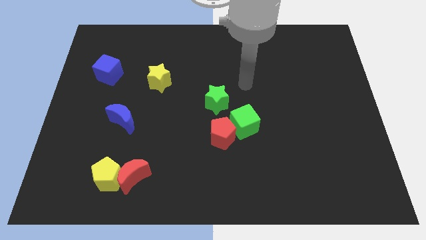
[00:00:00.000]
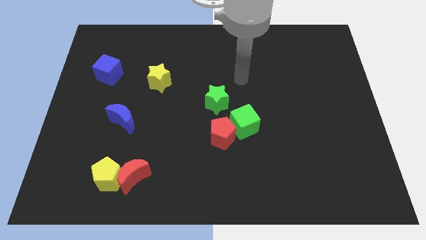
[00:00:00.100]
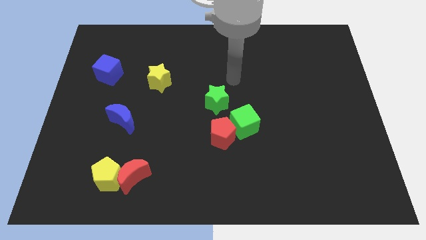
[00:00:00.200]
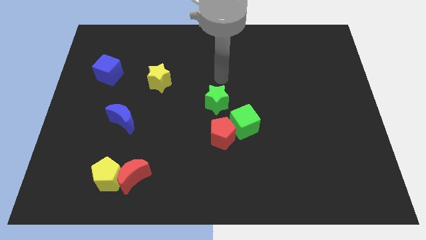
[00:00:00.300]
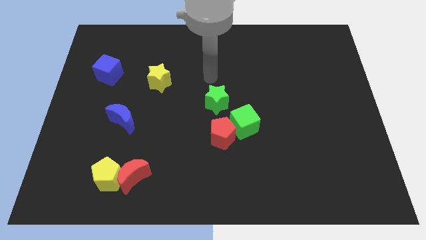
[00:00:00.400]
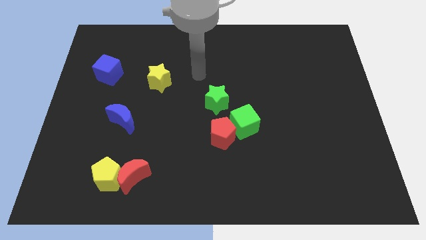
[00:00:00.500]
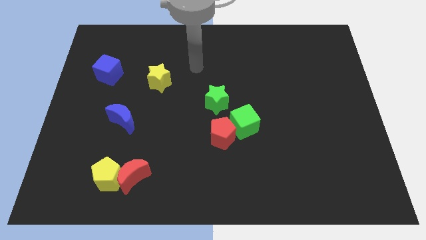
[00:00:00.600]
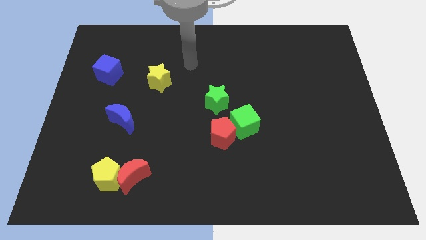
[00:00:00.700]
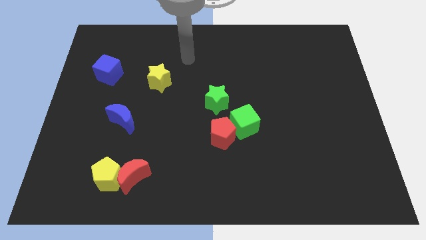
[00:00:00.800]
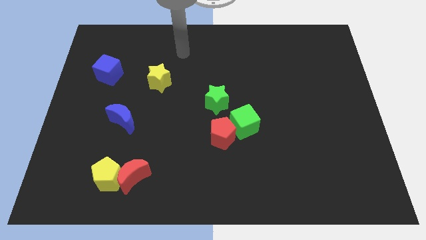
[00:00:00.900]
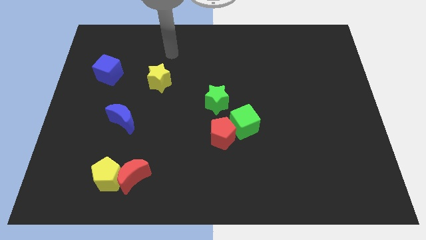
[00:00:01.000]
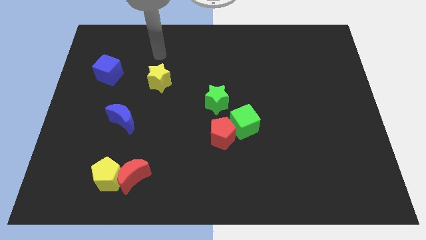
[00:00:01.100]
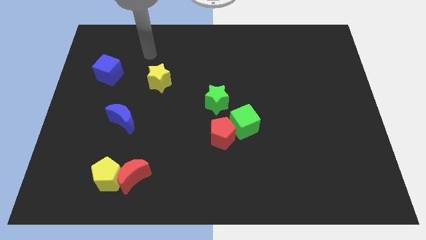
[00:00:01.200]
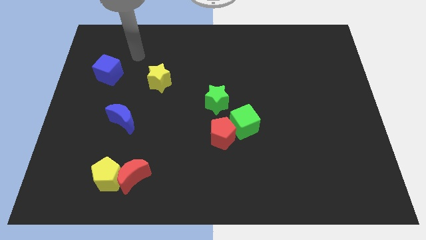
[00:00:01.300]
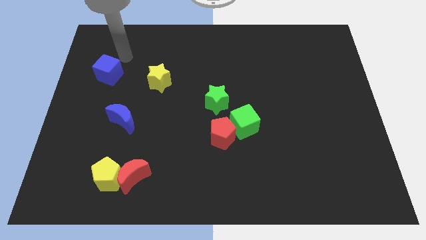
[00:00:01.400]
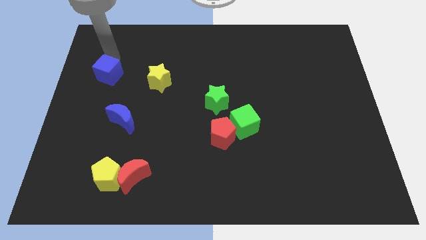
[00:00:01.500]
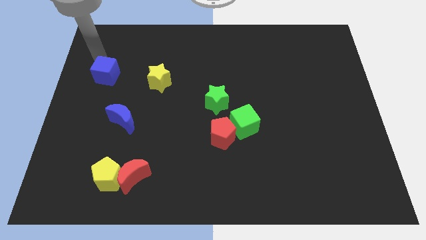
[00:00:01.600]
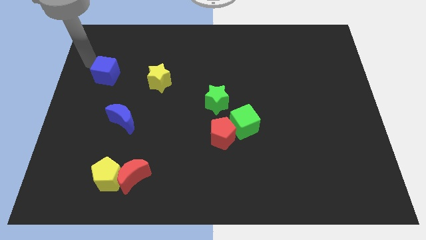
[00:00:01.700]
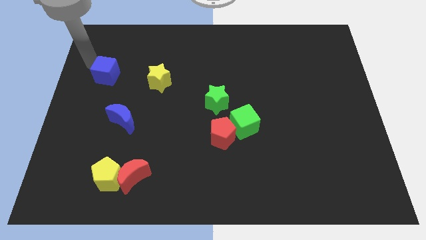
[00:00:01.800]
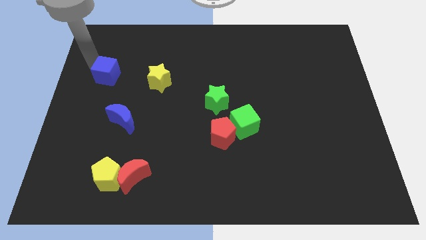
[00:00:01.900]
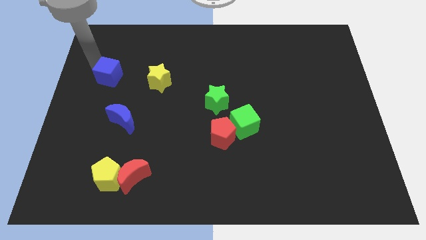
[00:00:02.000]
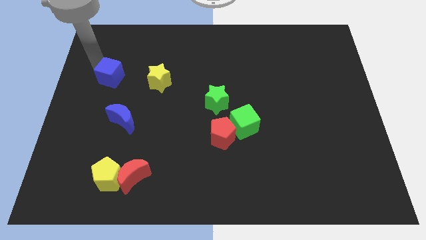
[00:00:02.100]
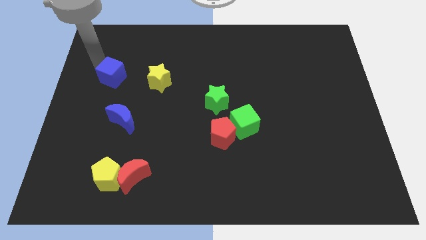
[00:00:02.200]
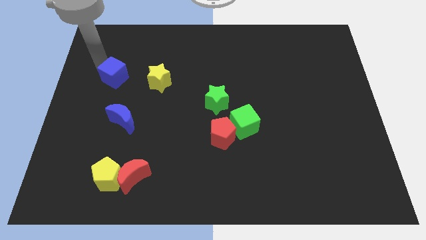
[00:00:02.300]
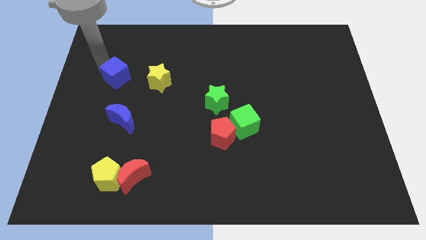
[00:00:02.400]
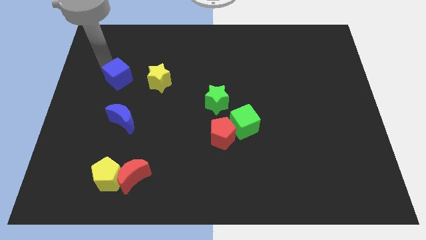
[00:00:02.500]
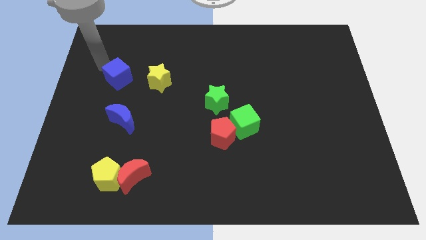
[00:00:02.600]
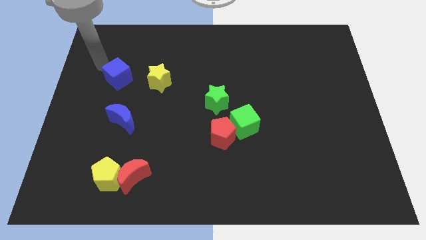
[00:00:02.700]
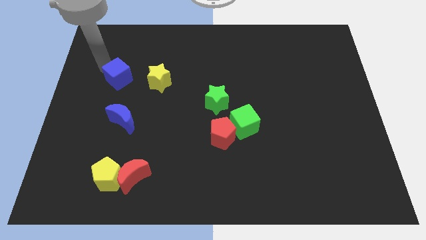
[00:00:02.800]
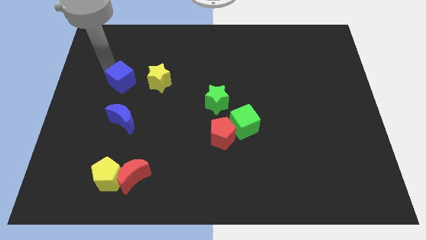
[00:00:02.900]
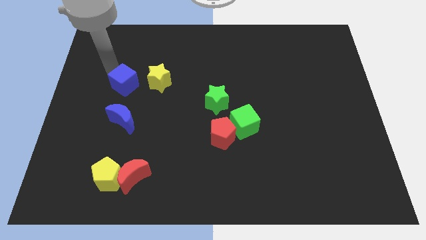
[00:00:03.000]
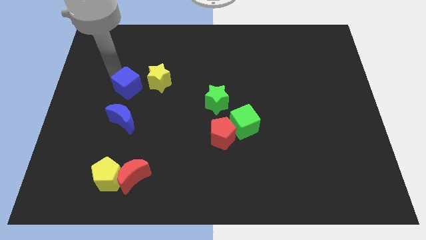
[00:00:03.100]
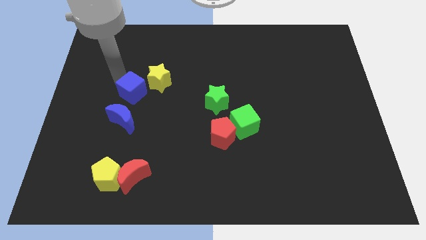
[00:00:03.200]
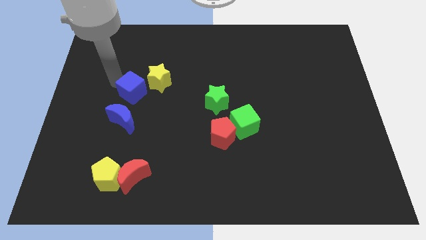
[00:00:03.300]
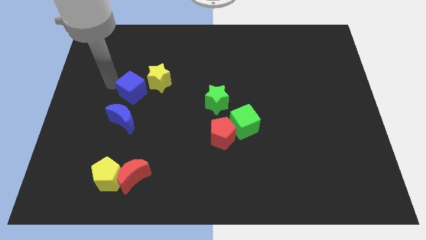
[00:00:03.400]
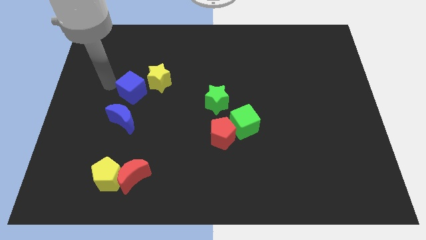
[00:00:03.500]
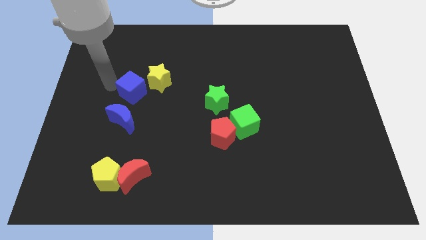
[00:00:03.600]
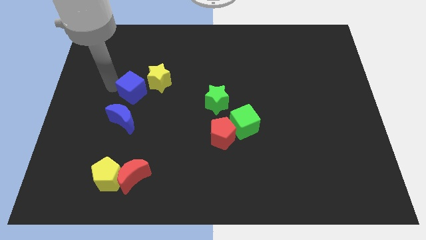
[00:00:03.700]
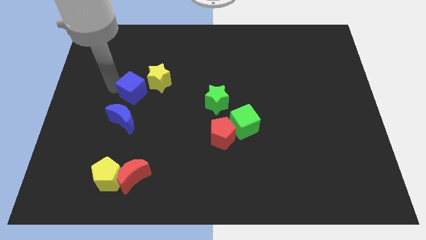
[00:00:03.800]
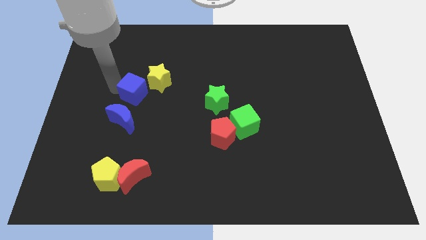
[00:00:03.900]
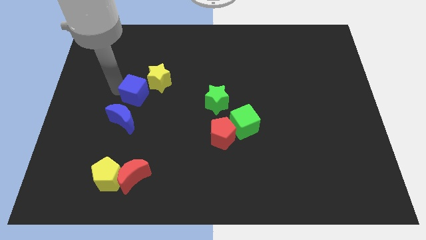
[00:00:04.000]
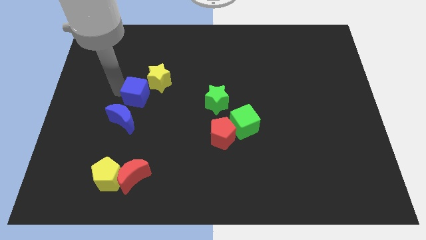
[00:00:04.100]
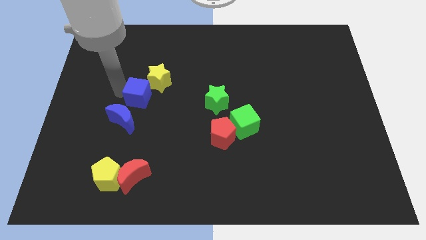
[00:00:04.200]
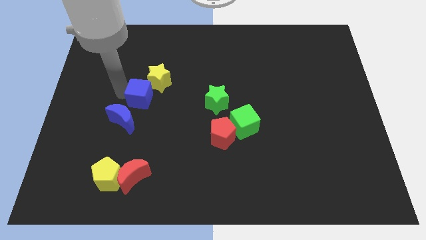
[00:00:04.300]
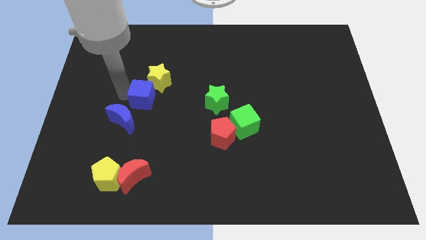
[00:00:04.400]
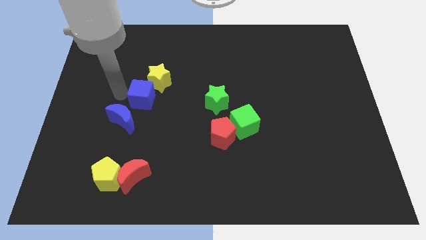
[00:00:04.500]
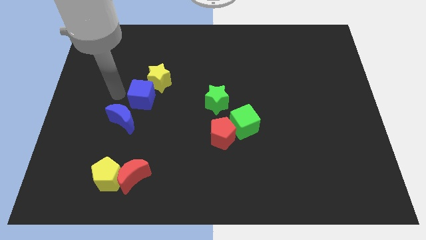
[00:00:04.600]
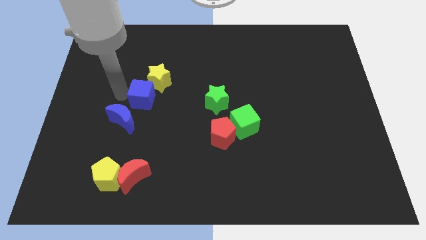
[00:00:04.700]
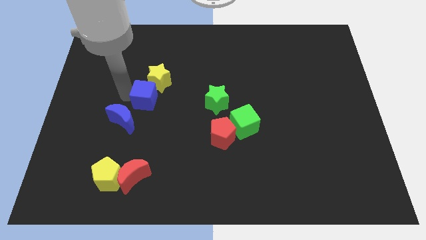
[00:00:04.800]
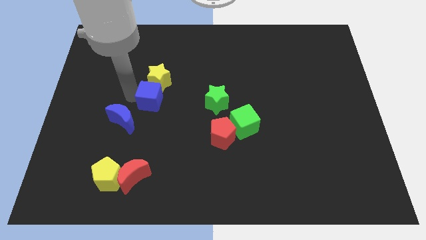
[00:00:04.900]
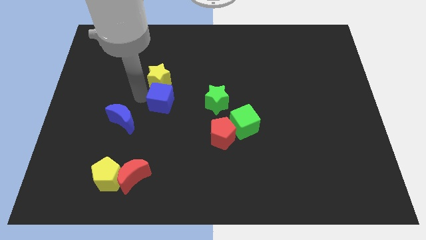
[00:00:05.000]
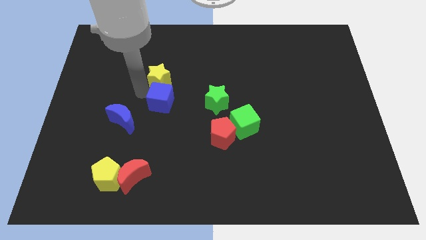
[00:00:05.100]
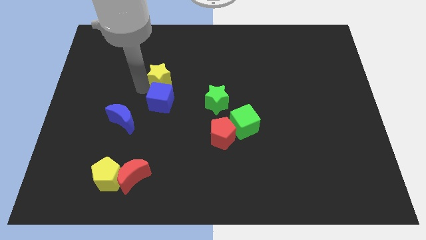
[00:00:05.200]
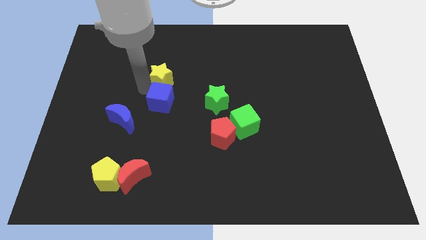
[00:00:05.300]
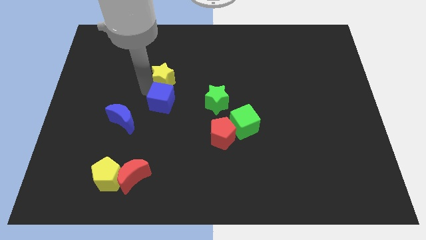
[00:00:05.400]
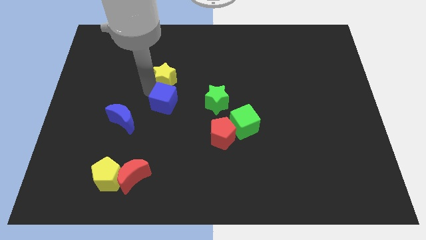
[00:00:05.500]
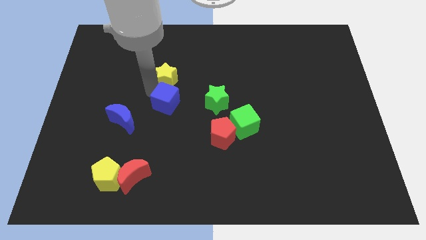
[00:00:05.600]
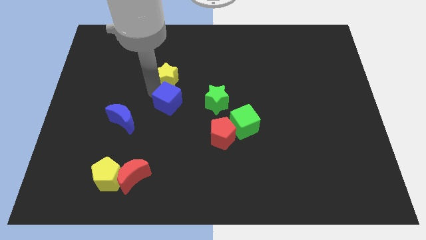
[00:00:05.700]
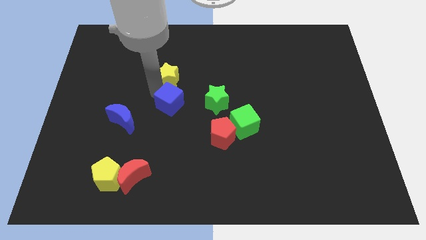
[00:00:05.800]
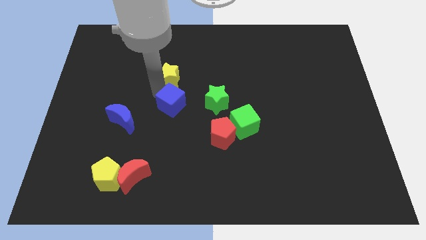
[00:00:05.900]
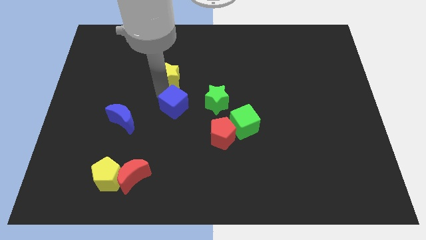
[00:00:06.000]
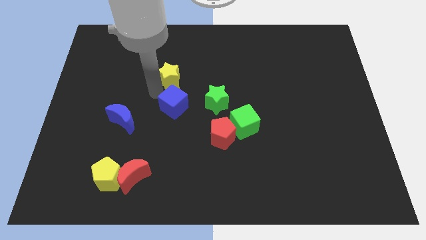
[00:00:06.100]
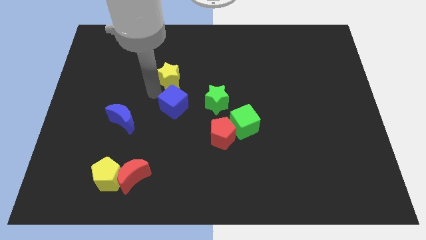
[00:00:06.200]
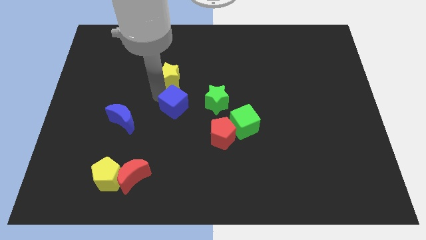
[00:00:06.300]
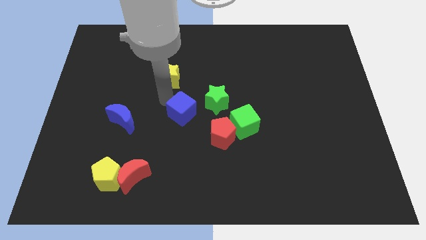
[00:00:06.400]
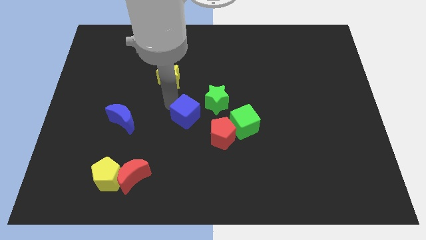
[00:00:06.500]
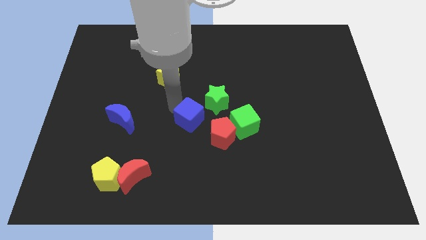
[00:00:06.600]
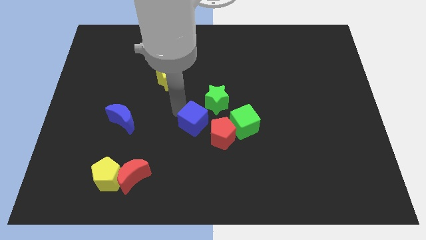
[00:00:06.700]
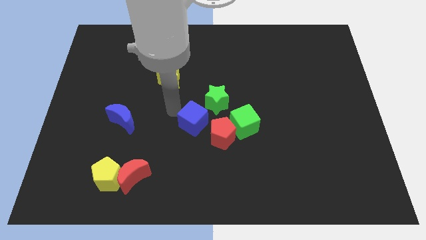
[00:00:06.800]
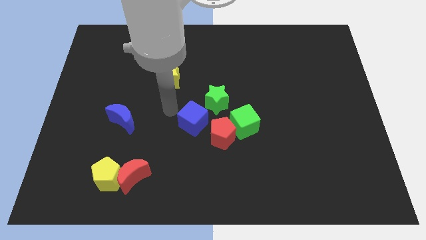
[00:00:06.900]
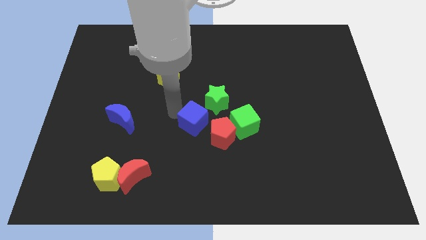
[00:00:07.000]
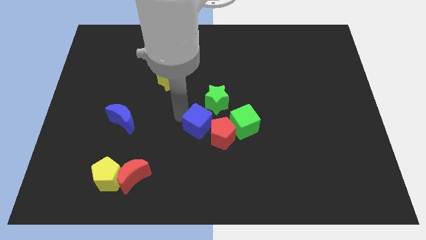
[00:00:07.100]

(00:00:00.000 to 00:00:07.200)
slide the blue cube close to the red pentagon

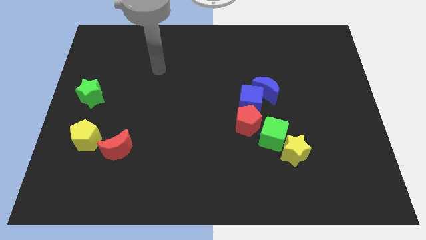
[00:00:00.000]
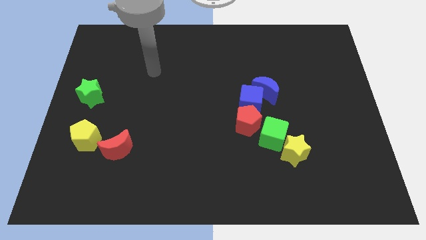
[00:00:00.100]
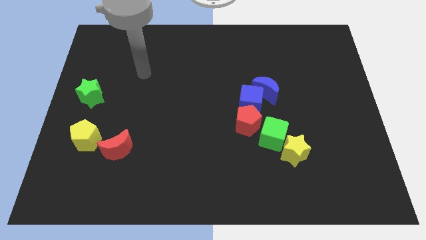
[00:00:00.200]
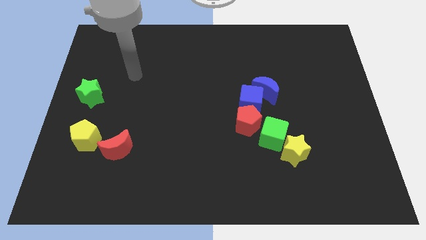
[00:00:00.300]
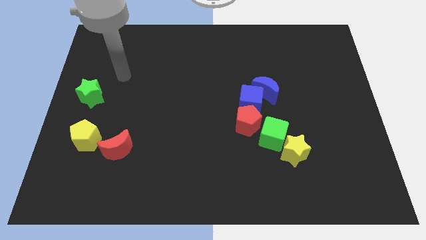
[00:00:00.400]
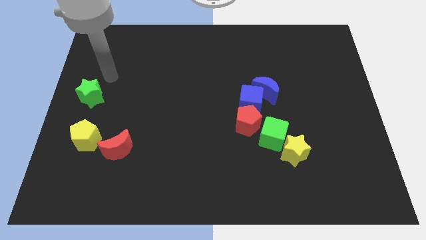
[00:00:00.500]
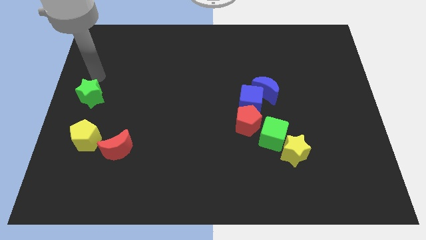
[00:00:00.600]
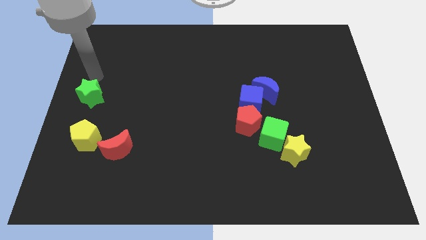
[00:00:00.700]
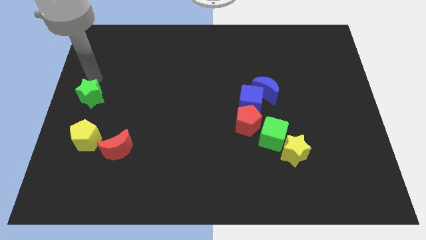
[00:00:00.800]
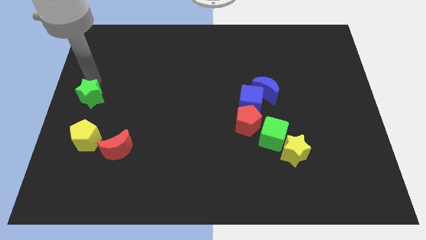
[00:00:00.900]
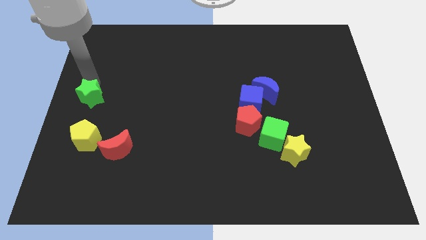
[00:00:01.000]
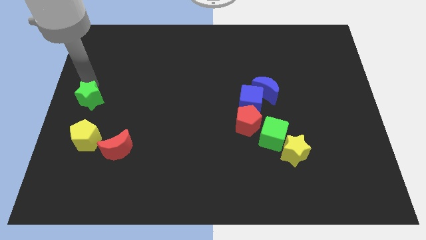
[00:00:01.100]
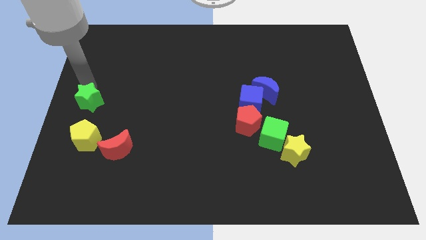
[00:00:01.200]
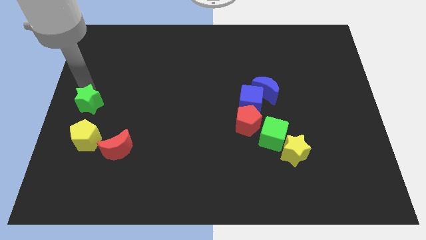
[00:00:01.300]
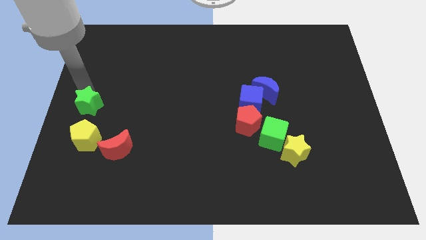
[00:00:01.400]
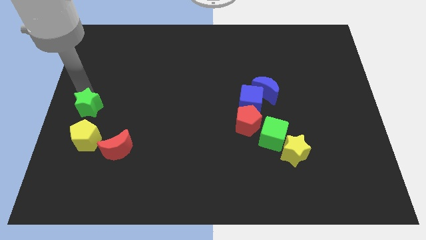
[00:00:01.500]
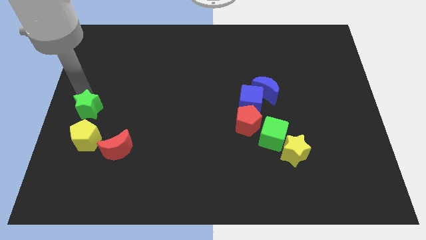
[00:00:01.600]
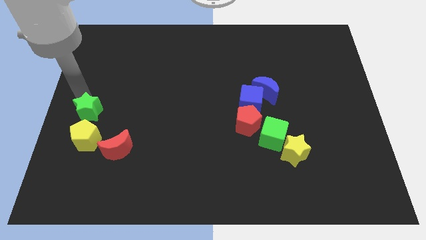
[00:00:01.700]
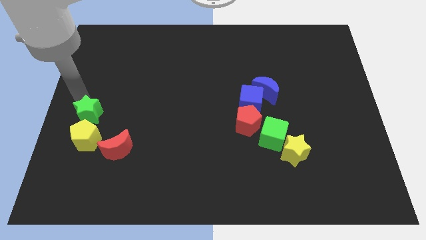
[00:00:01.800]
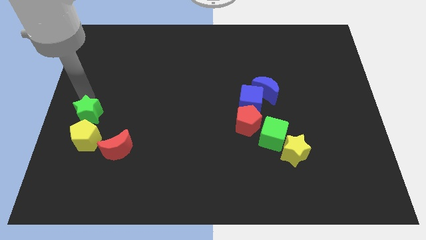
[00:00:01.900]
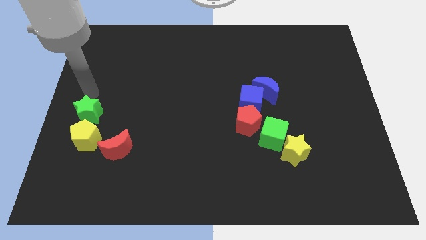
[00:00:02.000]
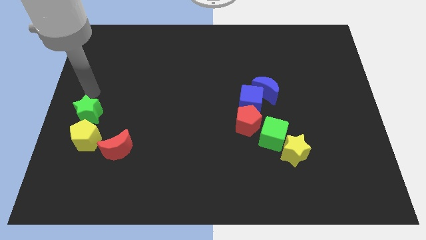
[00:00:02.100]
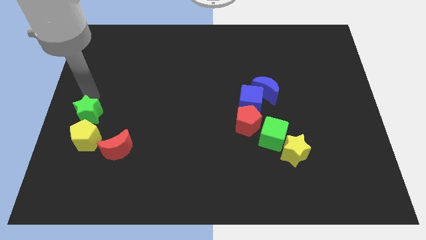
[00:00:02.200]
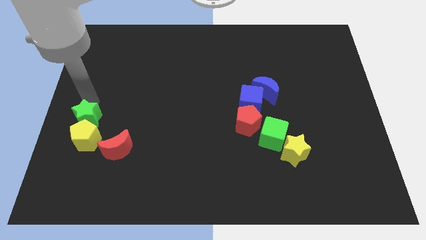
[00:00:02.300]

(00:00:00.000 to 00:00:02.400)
push the green star towards the yellow pentagon
